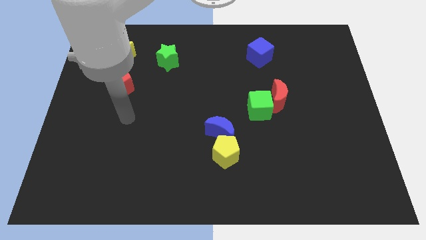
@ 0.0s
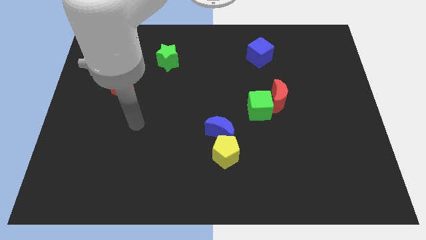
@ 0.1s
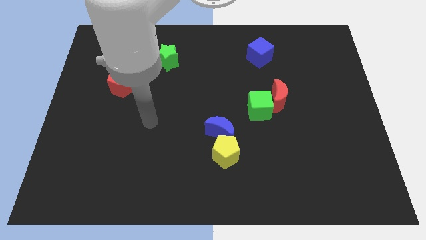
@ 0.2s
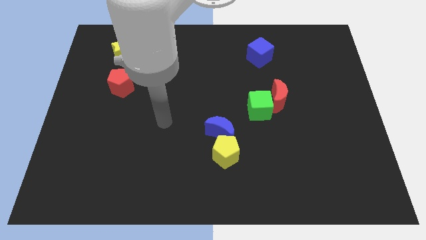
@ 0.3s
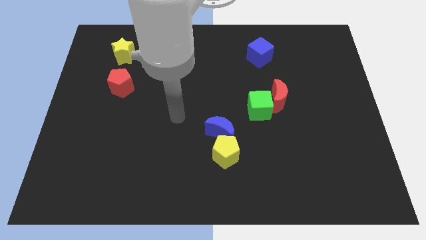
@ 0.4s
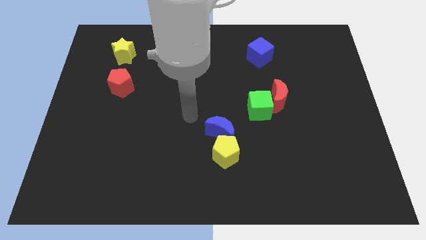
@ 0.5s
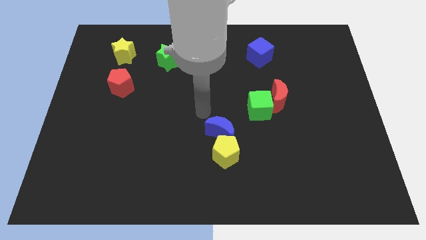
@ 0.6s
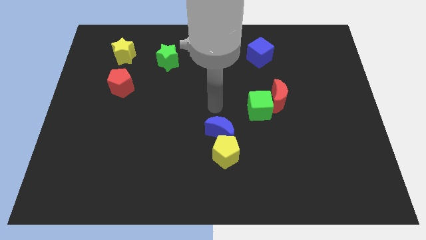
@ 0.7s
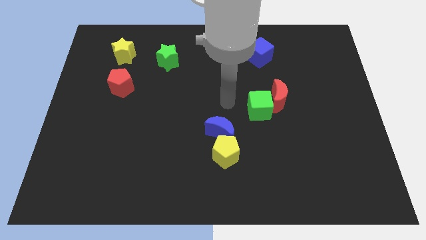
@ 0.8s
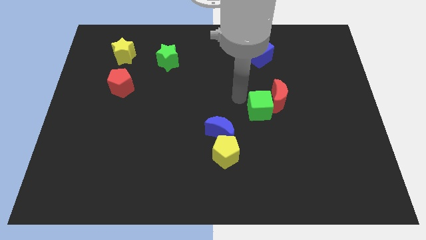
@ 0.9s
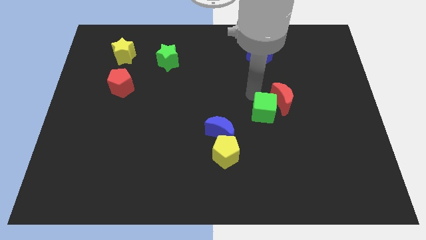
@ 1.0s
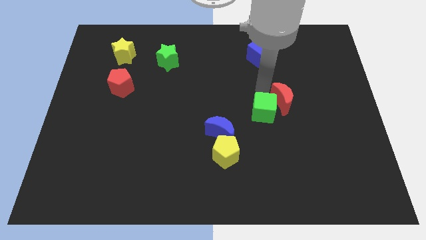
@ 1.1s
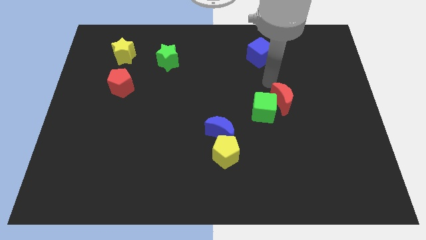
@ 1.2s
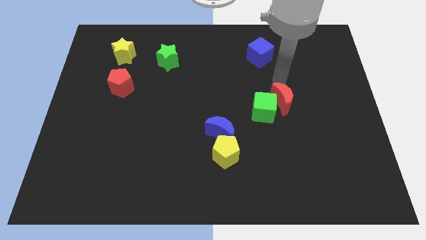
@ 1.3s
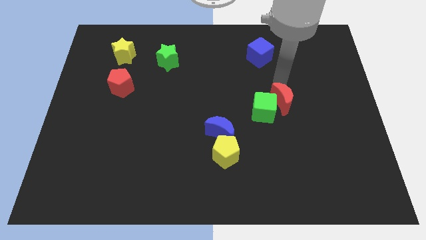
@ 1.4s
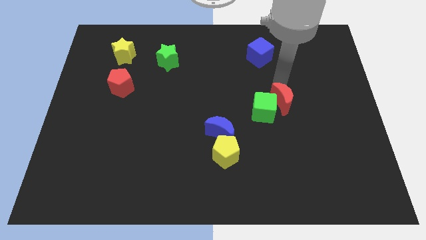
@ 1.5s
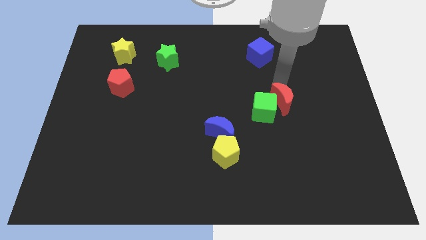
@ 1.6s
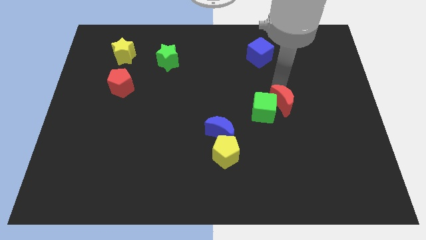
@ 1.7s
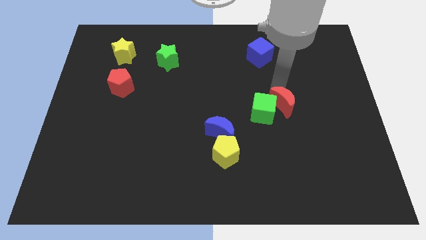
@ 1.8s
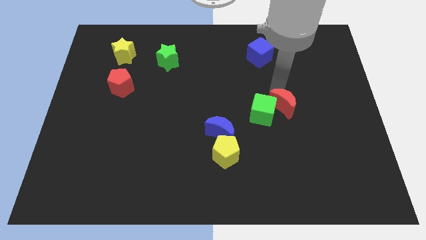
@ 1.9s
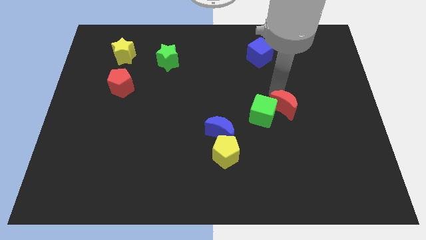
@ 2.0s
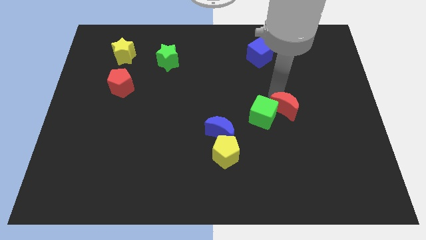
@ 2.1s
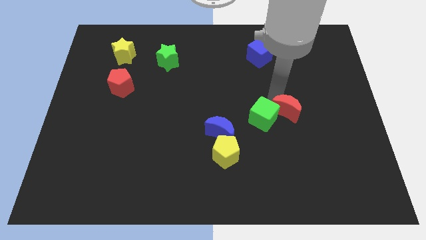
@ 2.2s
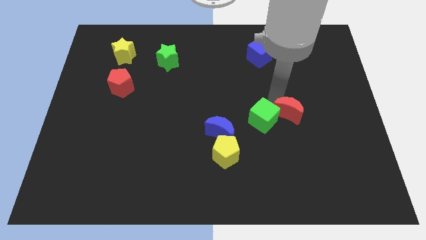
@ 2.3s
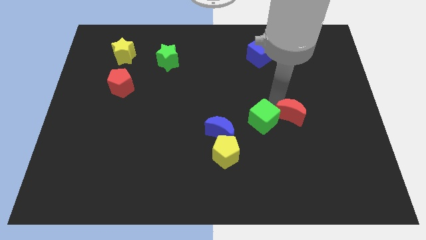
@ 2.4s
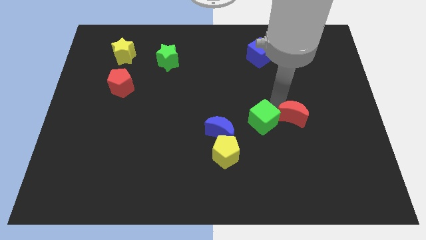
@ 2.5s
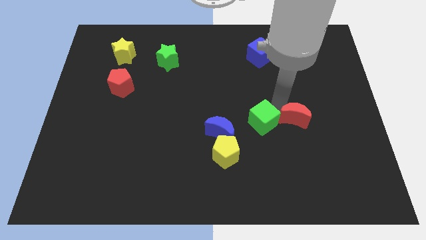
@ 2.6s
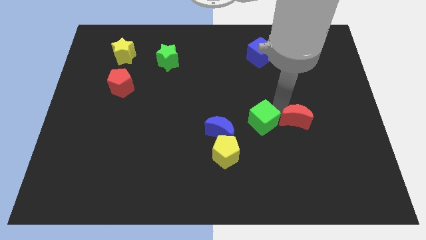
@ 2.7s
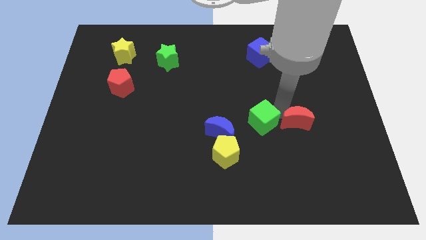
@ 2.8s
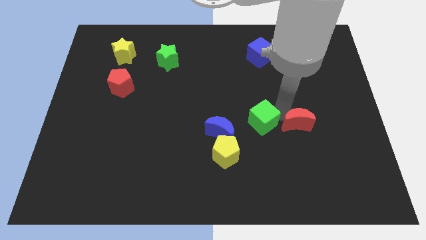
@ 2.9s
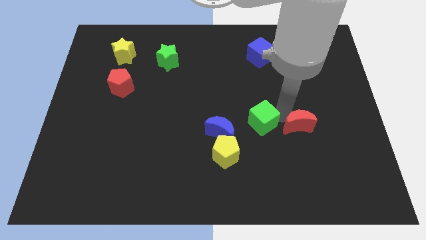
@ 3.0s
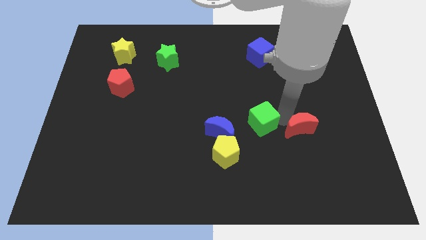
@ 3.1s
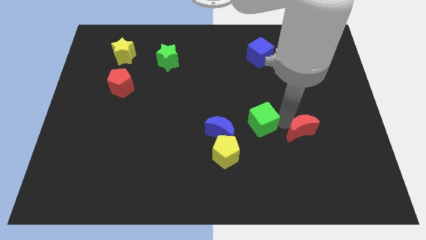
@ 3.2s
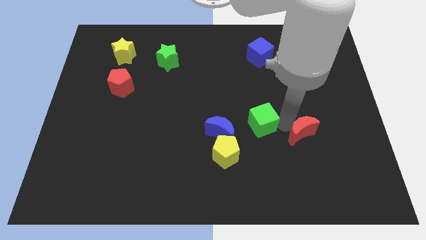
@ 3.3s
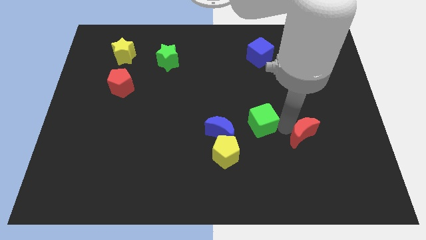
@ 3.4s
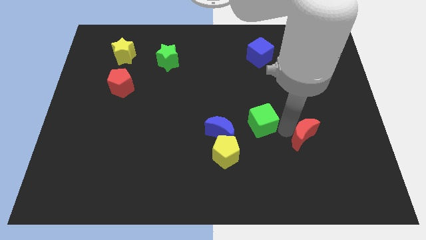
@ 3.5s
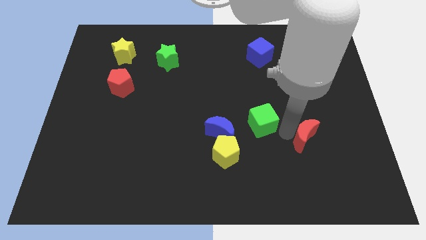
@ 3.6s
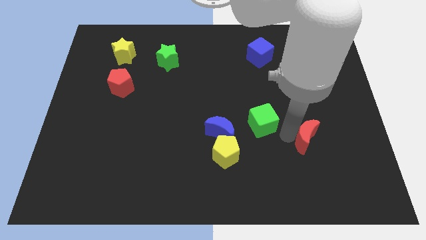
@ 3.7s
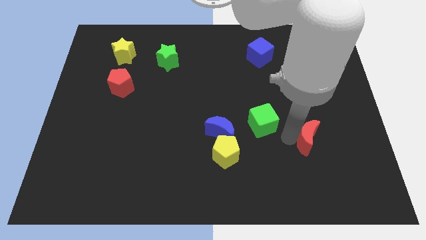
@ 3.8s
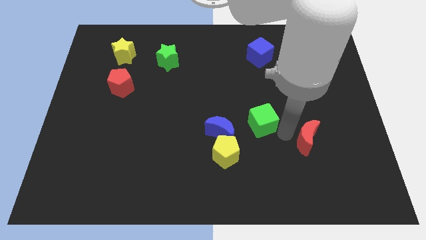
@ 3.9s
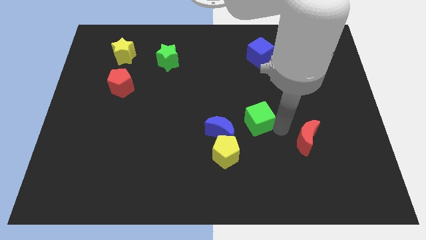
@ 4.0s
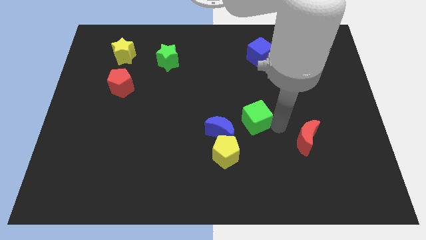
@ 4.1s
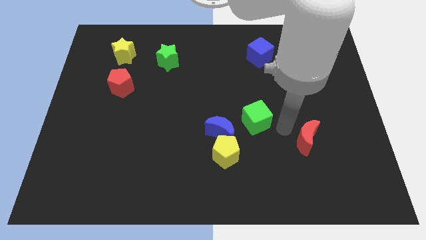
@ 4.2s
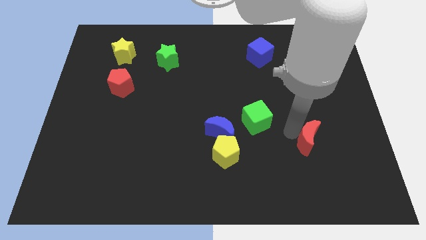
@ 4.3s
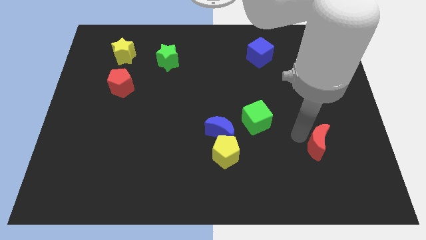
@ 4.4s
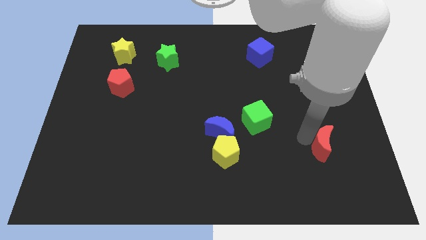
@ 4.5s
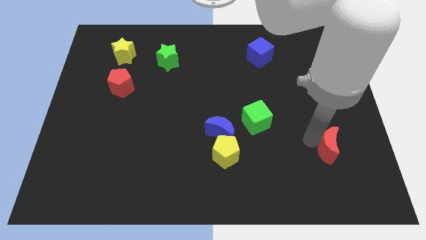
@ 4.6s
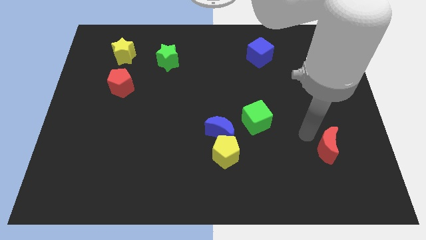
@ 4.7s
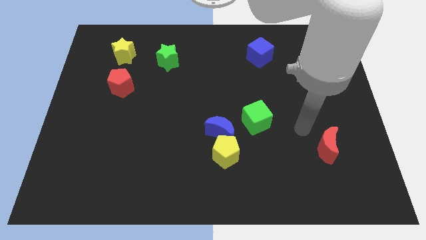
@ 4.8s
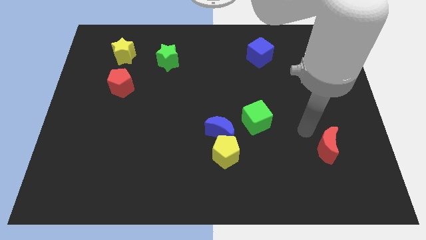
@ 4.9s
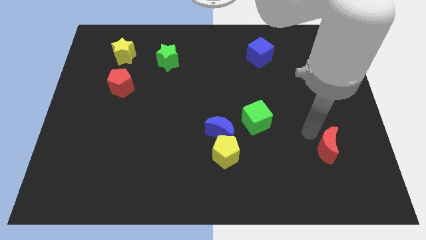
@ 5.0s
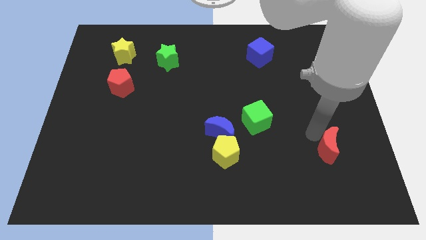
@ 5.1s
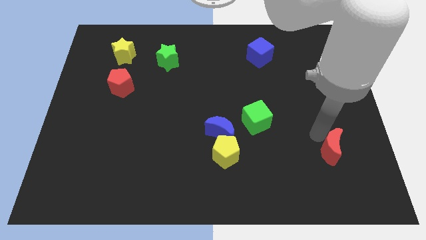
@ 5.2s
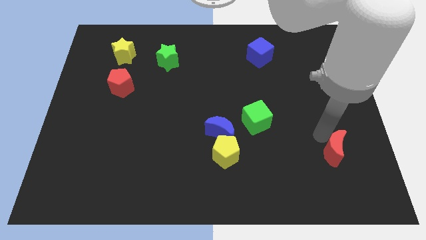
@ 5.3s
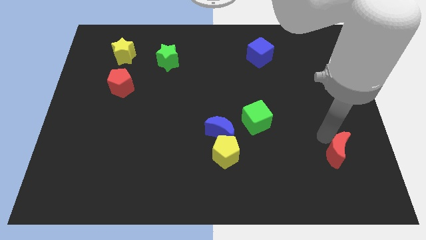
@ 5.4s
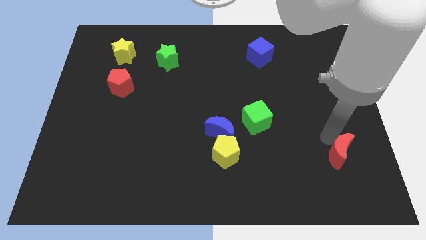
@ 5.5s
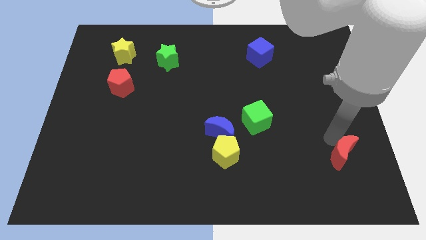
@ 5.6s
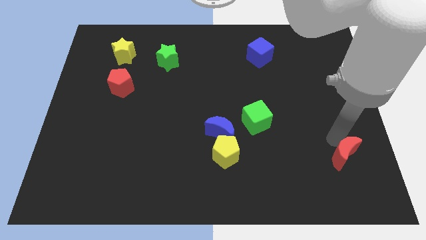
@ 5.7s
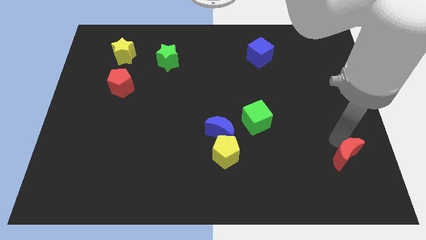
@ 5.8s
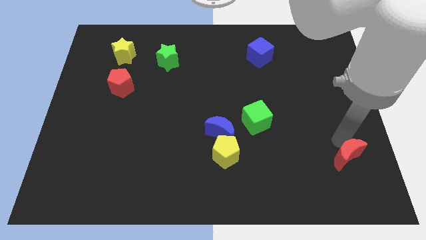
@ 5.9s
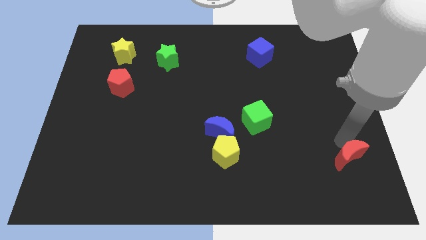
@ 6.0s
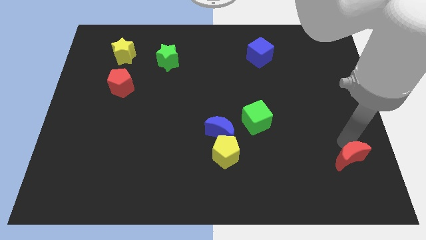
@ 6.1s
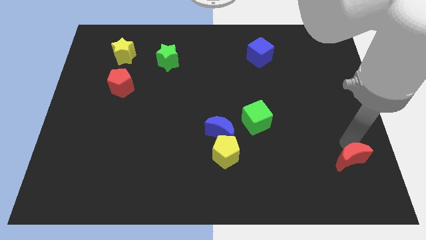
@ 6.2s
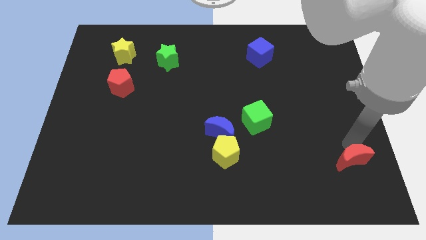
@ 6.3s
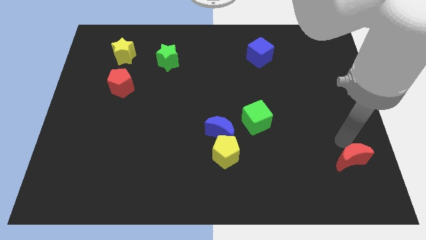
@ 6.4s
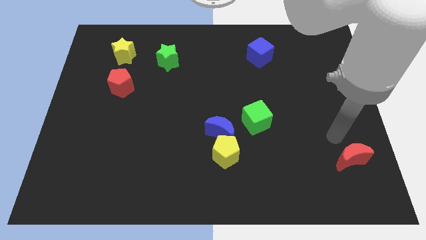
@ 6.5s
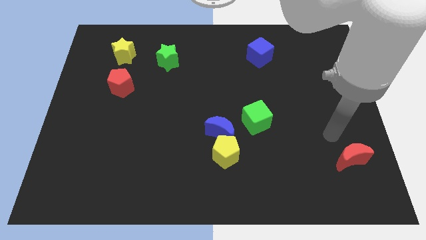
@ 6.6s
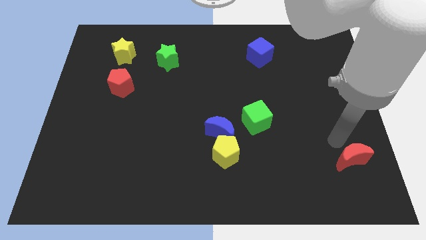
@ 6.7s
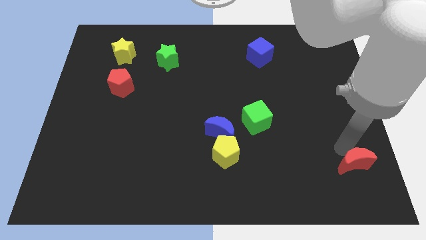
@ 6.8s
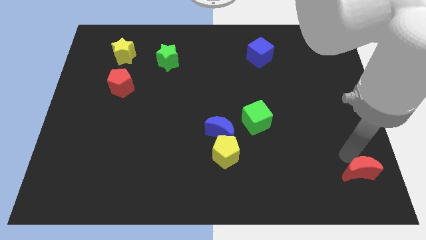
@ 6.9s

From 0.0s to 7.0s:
slide the red moon to the bottom right corner
